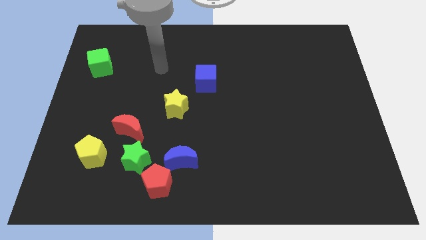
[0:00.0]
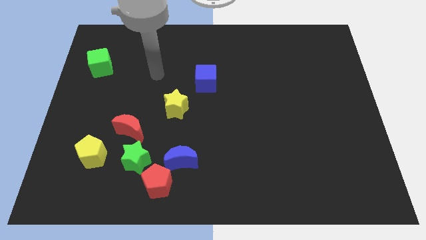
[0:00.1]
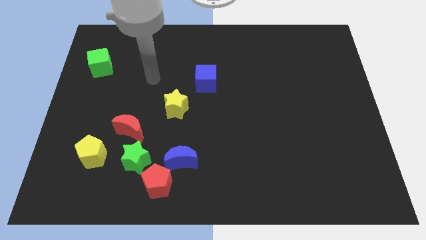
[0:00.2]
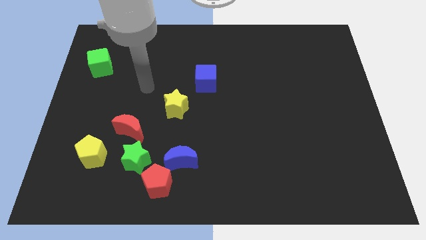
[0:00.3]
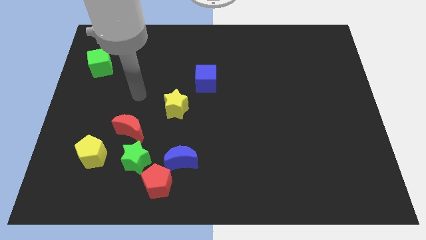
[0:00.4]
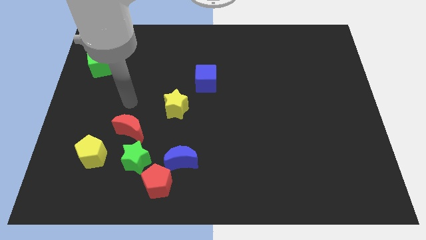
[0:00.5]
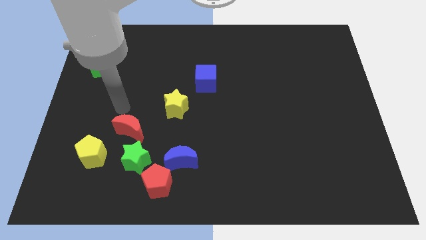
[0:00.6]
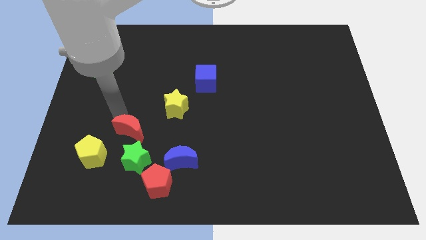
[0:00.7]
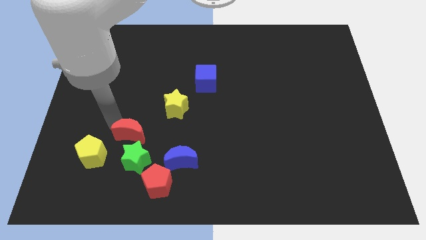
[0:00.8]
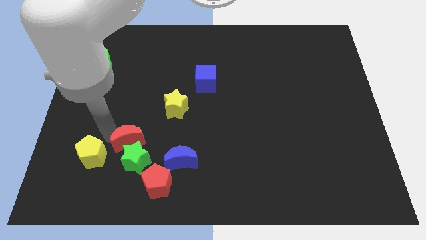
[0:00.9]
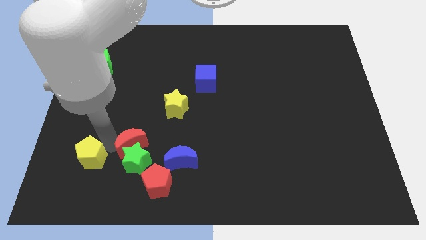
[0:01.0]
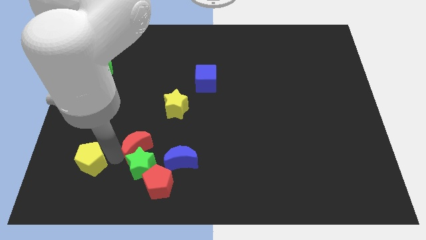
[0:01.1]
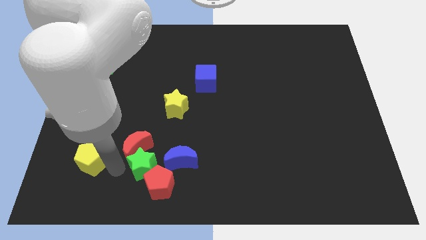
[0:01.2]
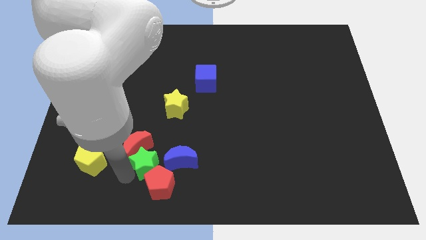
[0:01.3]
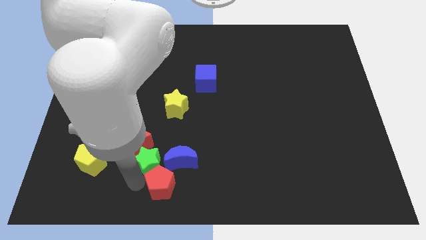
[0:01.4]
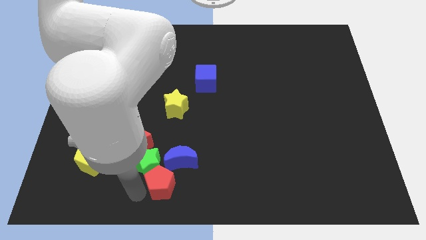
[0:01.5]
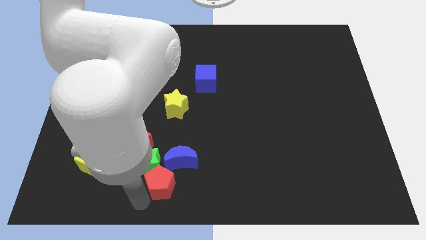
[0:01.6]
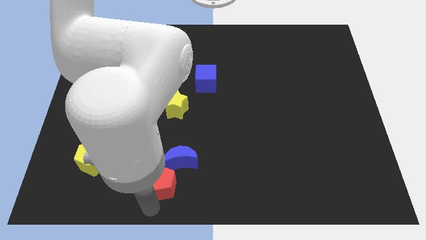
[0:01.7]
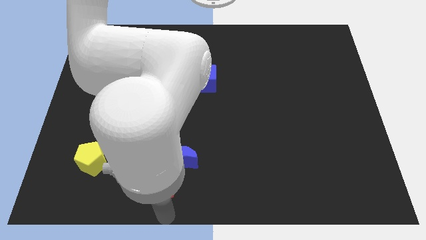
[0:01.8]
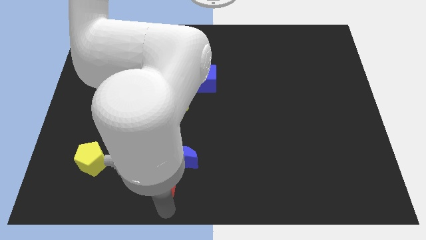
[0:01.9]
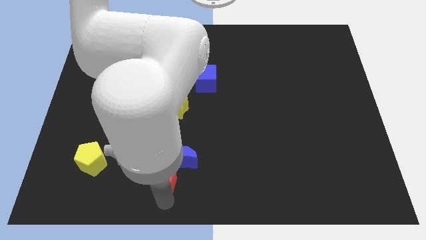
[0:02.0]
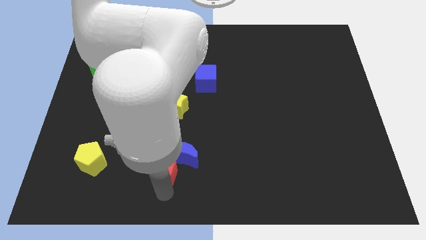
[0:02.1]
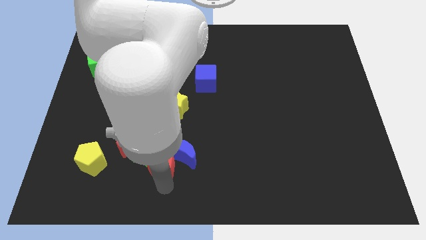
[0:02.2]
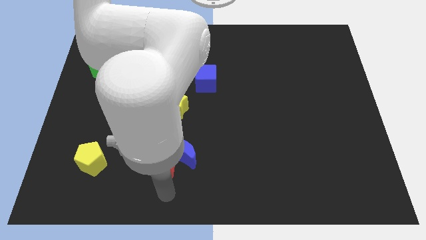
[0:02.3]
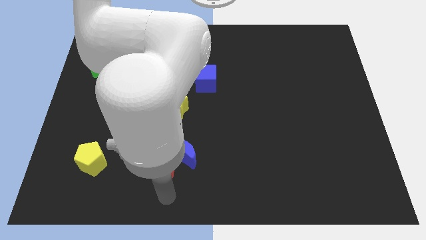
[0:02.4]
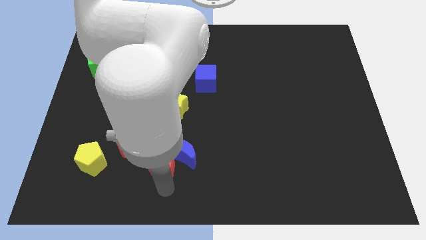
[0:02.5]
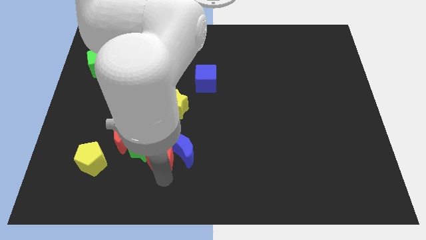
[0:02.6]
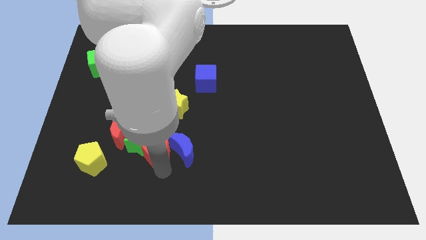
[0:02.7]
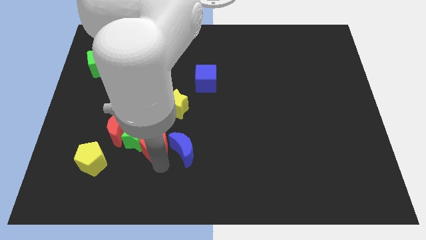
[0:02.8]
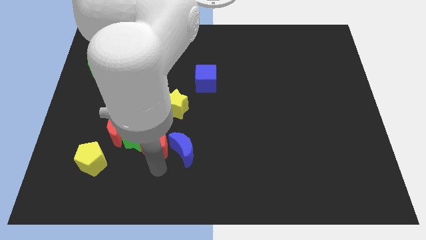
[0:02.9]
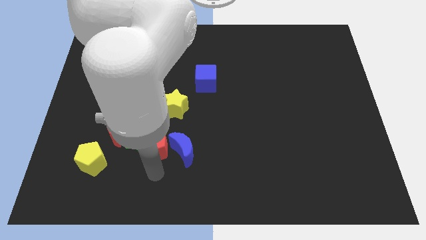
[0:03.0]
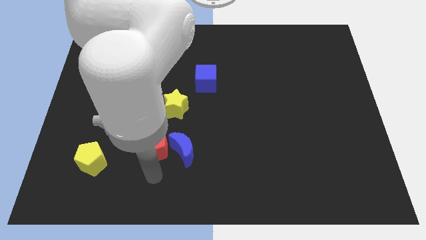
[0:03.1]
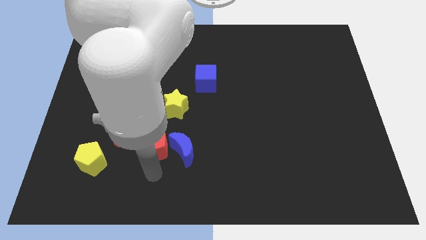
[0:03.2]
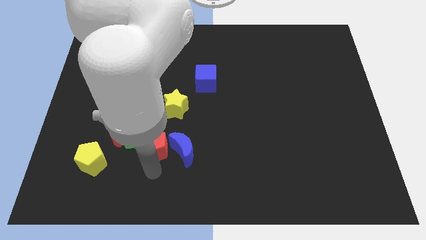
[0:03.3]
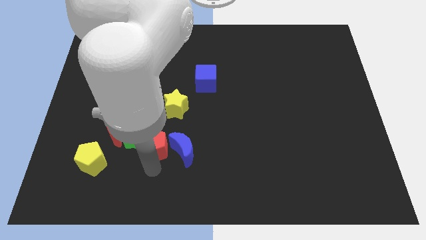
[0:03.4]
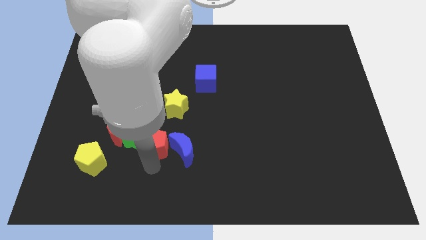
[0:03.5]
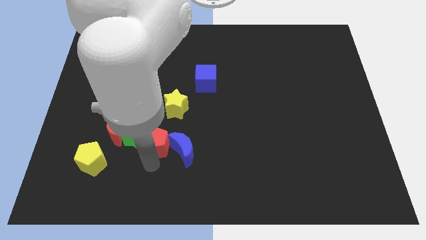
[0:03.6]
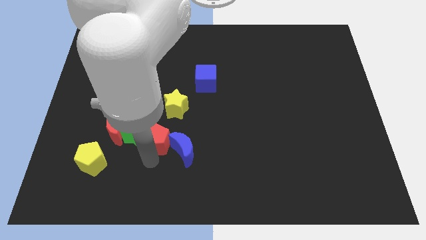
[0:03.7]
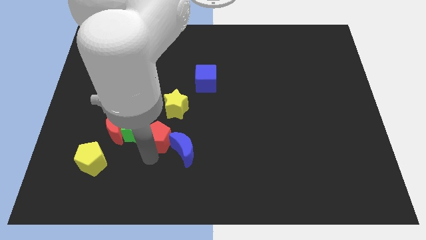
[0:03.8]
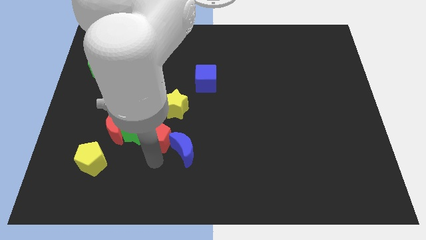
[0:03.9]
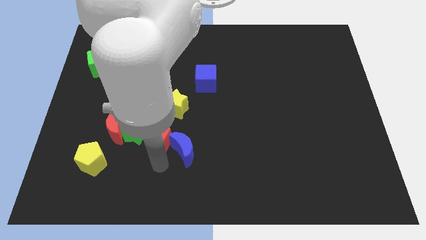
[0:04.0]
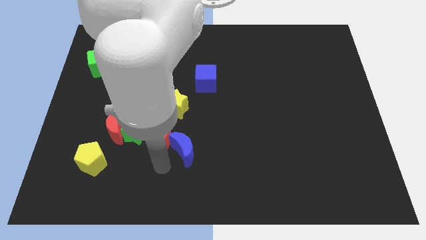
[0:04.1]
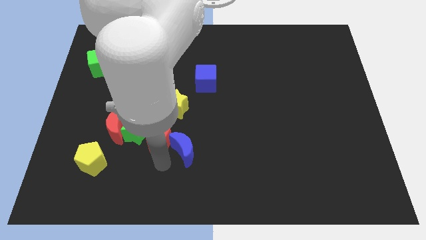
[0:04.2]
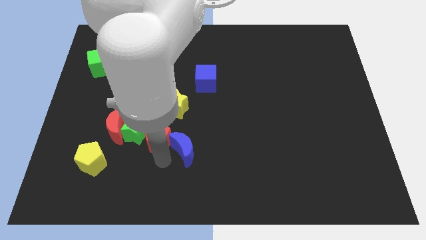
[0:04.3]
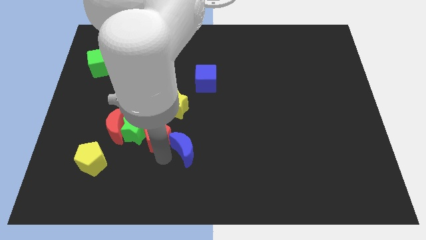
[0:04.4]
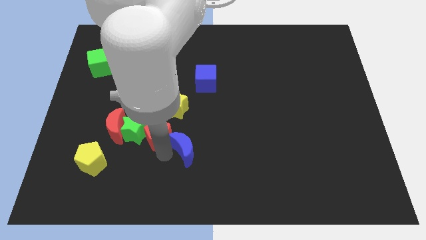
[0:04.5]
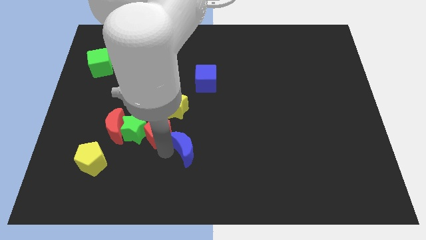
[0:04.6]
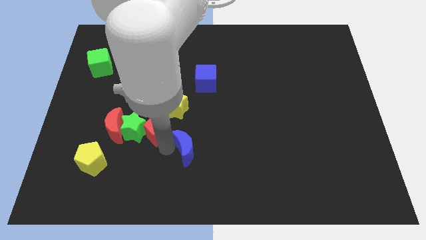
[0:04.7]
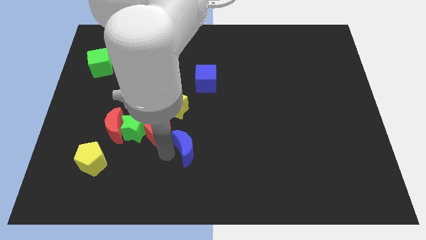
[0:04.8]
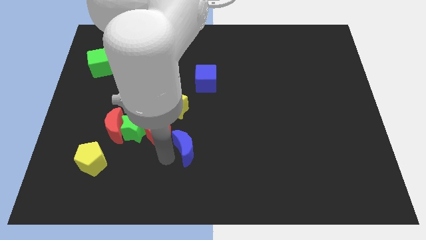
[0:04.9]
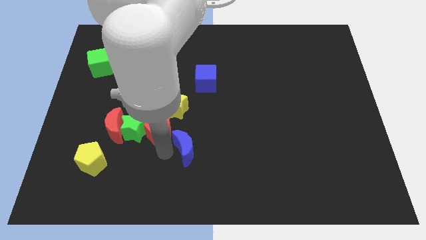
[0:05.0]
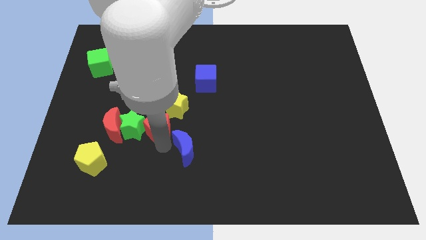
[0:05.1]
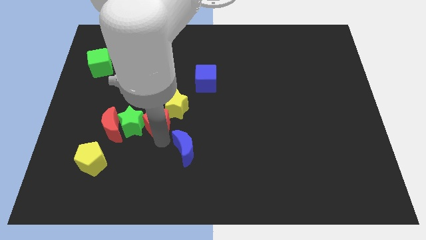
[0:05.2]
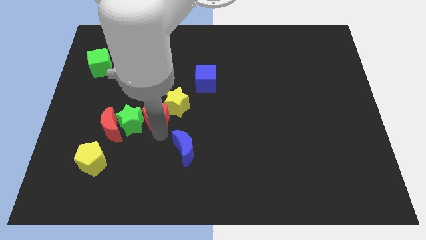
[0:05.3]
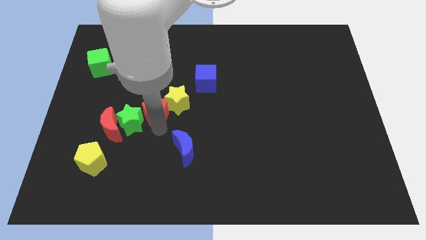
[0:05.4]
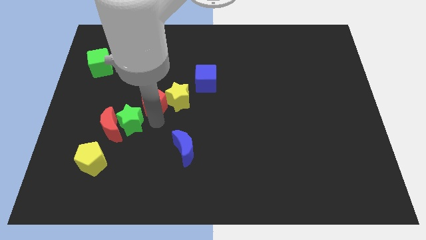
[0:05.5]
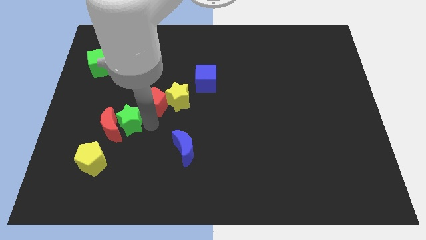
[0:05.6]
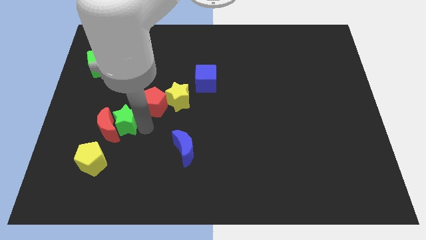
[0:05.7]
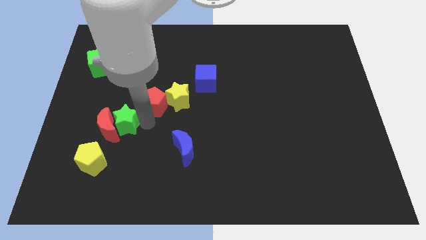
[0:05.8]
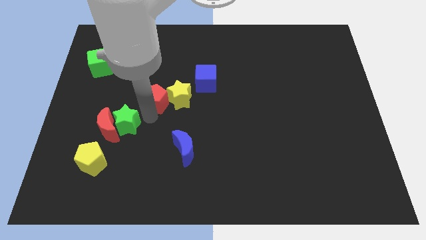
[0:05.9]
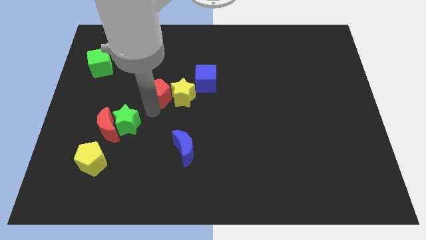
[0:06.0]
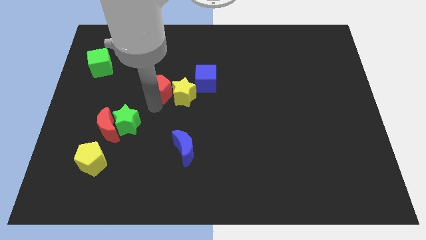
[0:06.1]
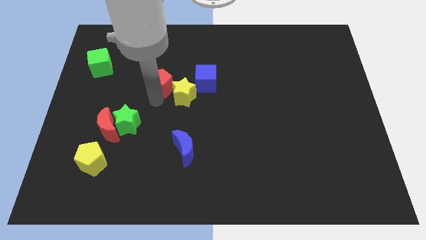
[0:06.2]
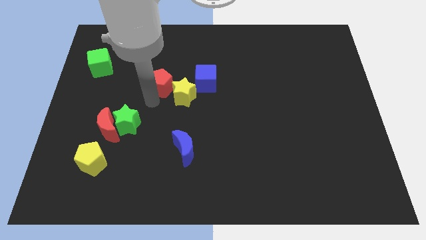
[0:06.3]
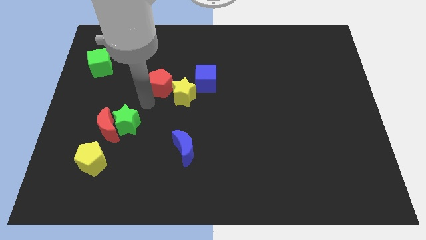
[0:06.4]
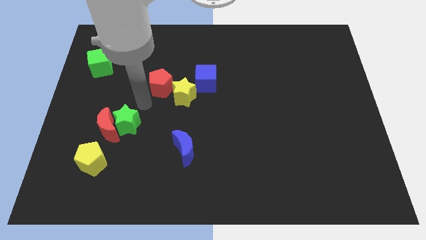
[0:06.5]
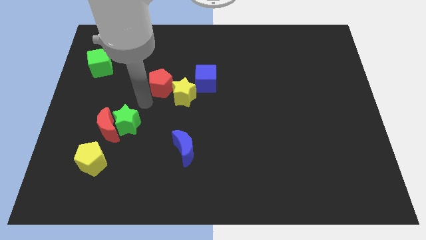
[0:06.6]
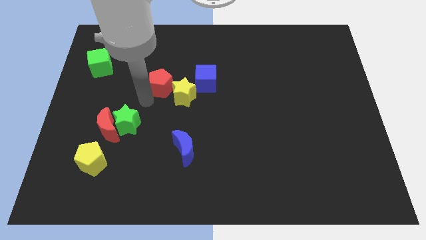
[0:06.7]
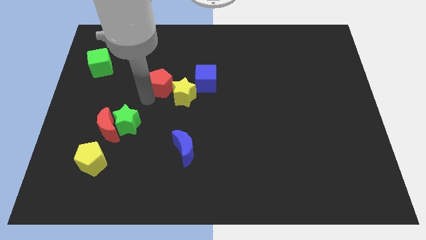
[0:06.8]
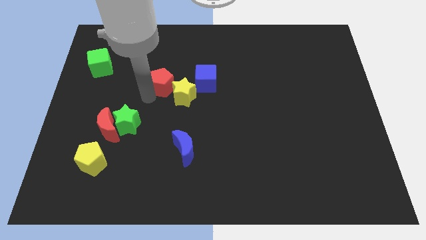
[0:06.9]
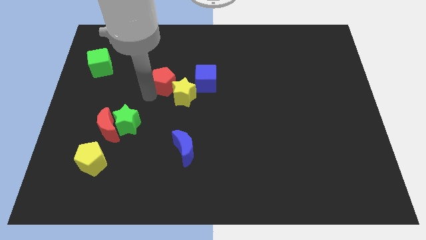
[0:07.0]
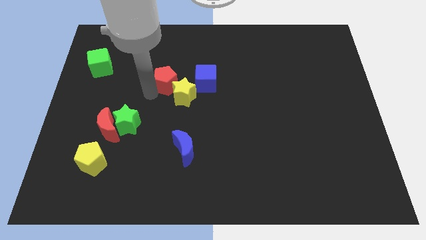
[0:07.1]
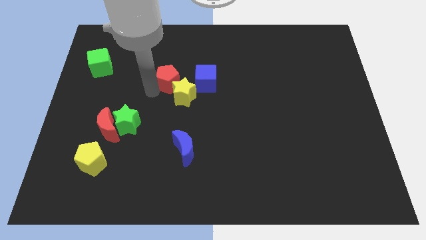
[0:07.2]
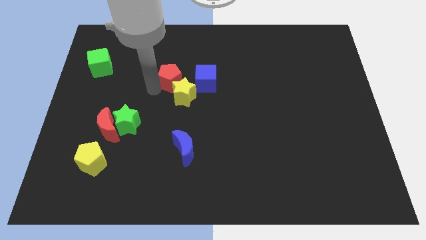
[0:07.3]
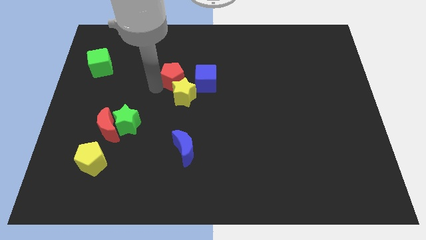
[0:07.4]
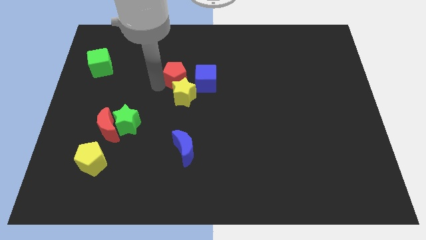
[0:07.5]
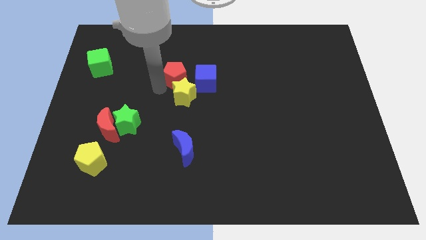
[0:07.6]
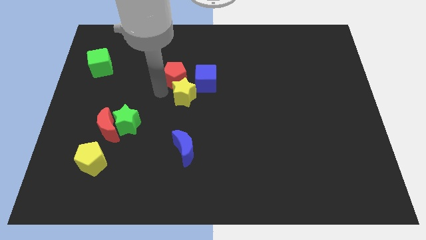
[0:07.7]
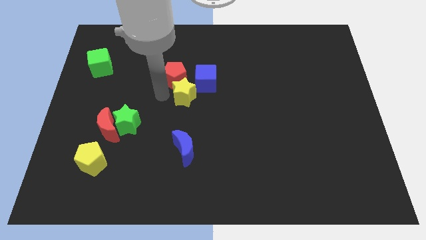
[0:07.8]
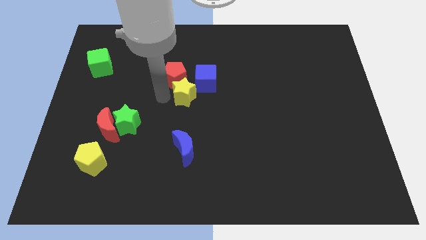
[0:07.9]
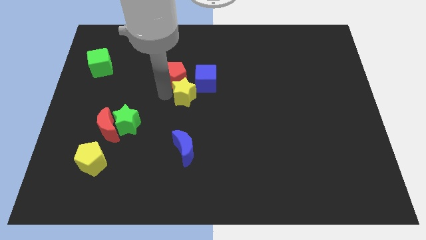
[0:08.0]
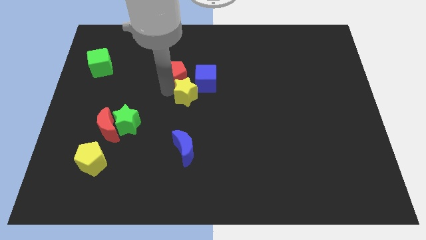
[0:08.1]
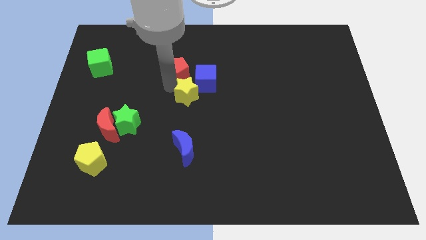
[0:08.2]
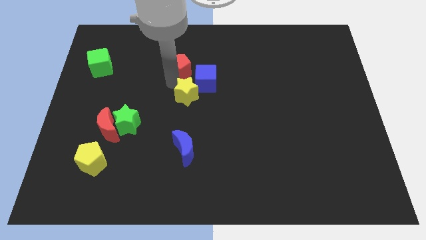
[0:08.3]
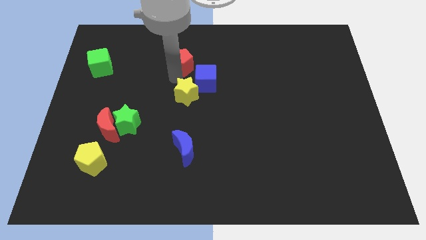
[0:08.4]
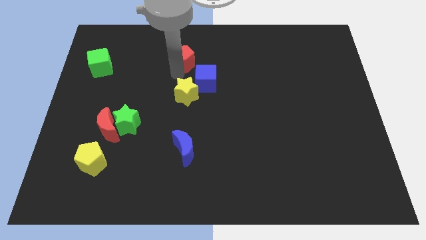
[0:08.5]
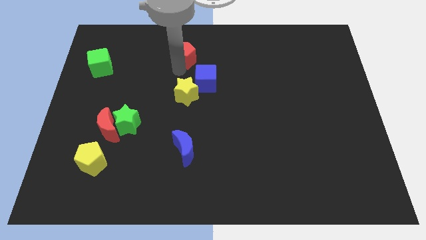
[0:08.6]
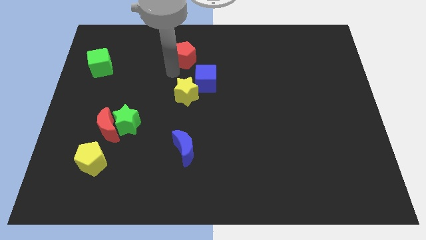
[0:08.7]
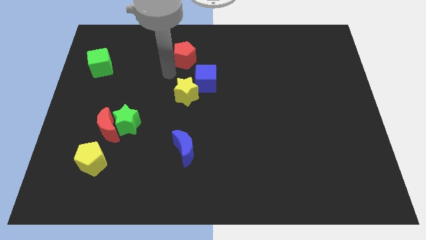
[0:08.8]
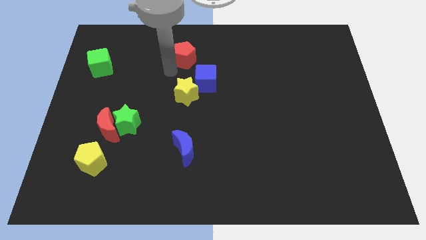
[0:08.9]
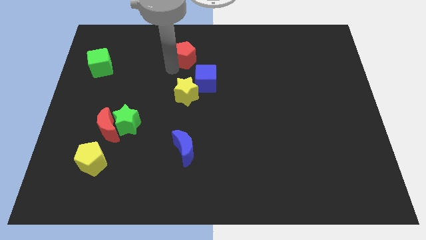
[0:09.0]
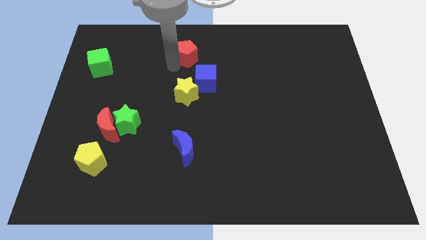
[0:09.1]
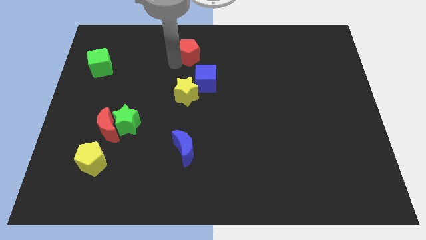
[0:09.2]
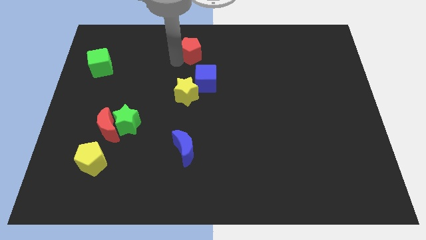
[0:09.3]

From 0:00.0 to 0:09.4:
move the red pentagon to the top
